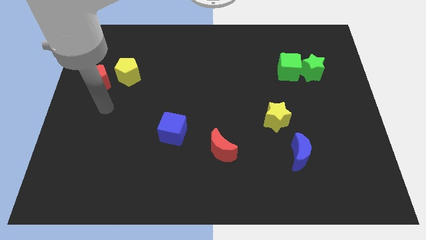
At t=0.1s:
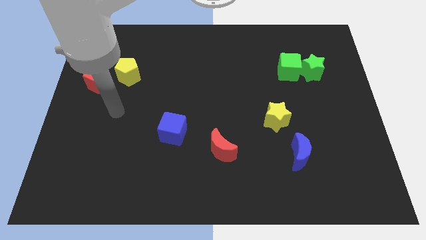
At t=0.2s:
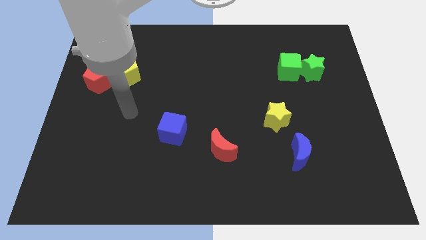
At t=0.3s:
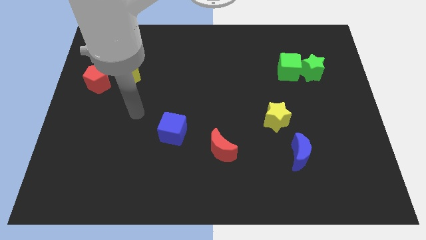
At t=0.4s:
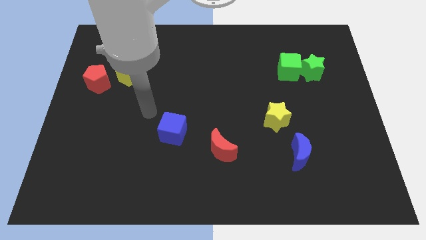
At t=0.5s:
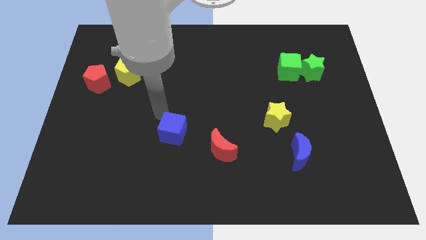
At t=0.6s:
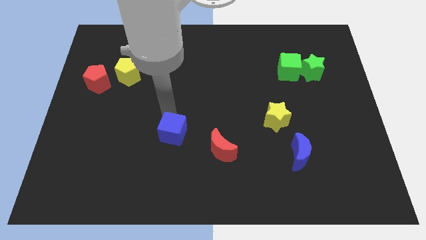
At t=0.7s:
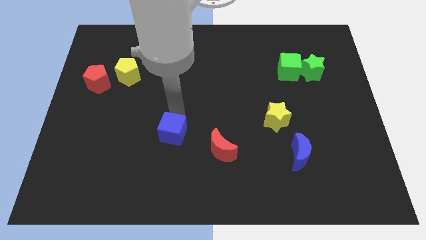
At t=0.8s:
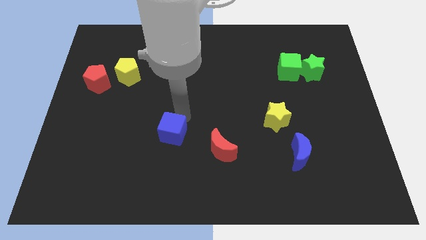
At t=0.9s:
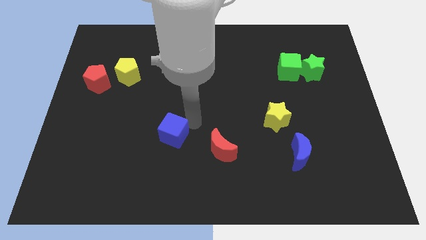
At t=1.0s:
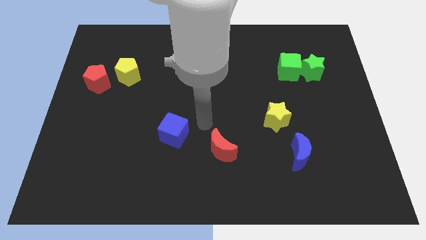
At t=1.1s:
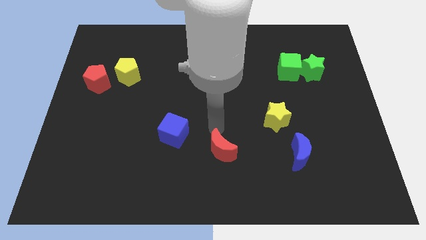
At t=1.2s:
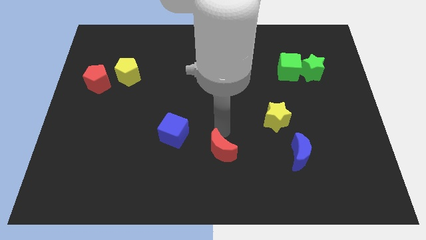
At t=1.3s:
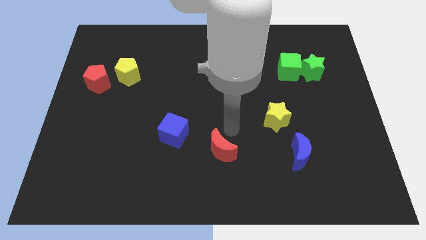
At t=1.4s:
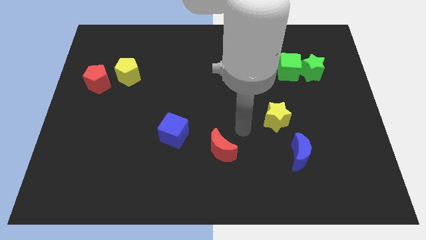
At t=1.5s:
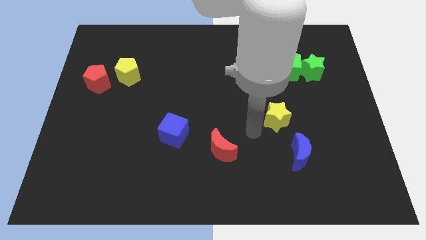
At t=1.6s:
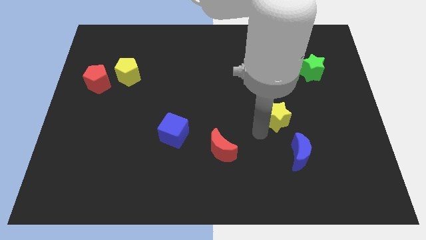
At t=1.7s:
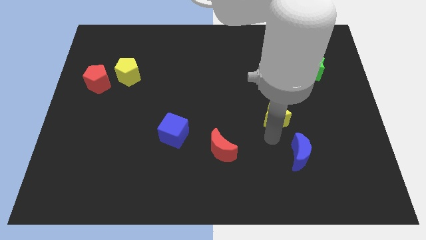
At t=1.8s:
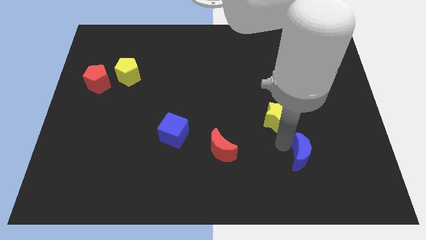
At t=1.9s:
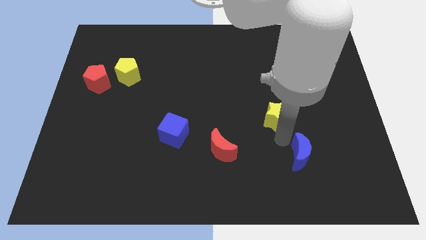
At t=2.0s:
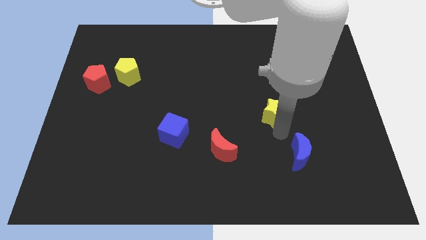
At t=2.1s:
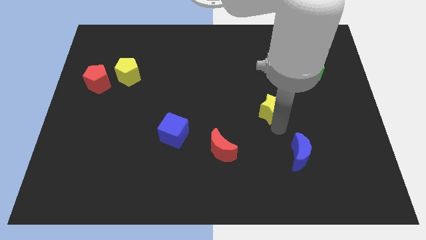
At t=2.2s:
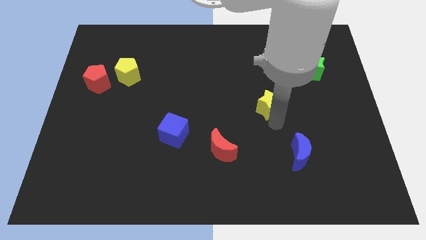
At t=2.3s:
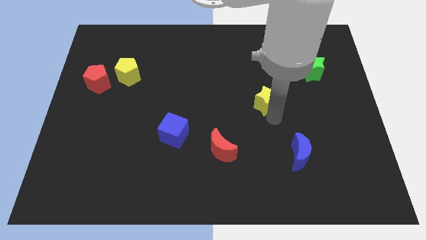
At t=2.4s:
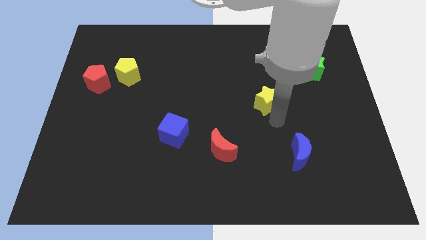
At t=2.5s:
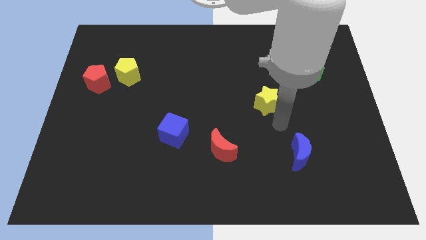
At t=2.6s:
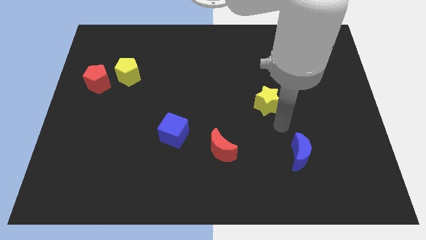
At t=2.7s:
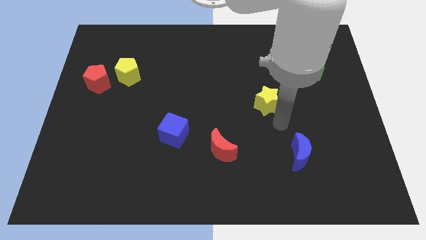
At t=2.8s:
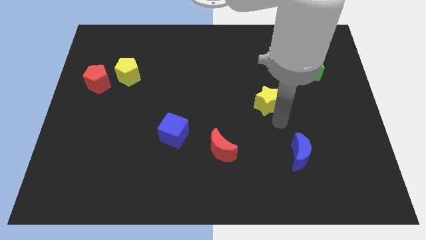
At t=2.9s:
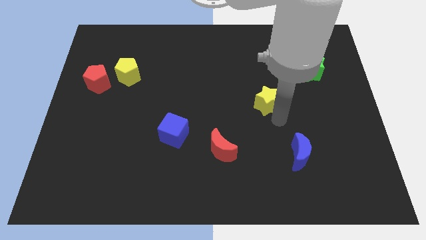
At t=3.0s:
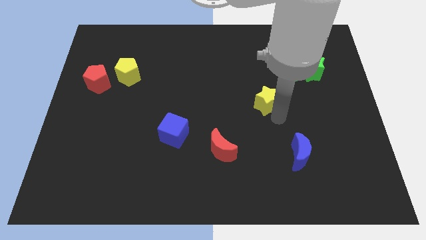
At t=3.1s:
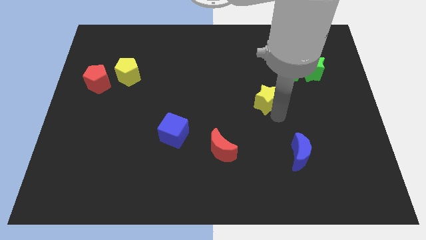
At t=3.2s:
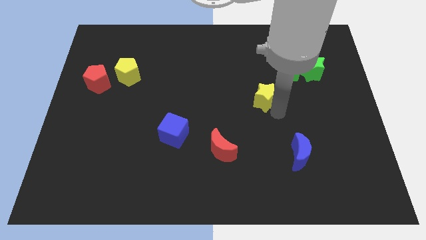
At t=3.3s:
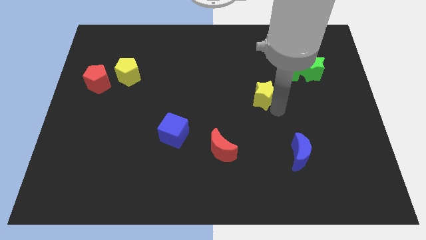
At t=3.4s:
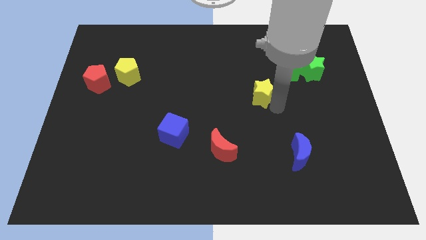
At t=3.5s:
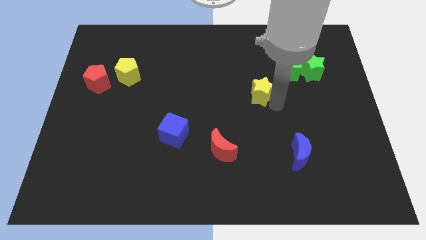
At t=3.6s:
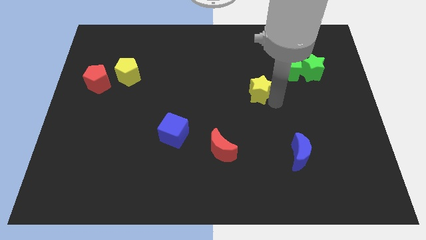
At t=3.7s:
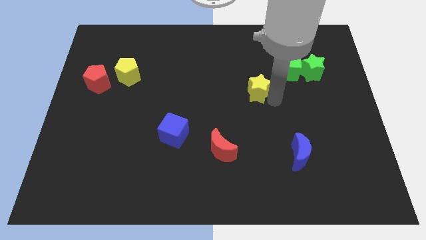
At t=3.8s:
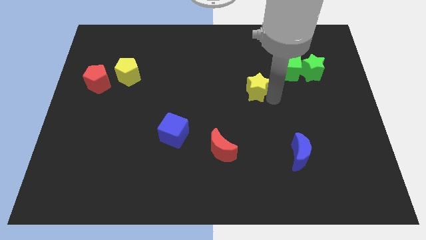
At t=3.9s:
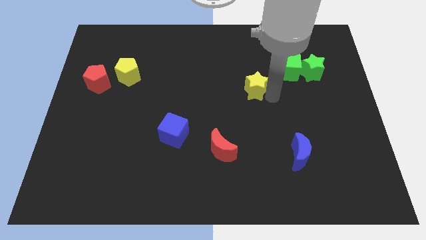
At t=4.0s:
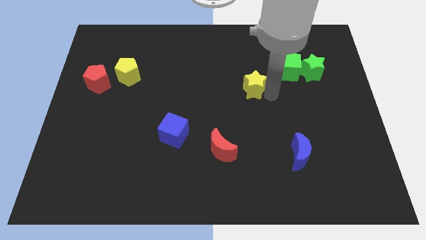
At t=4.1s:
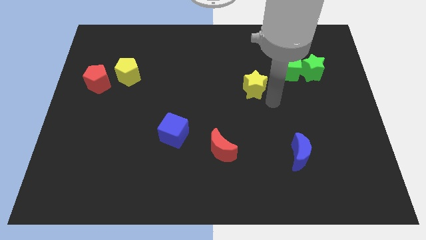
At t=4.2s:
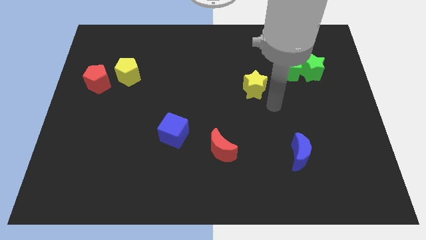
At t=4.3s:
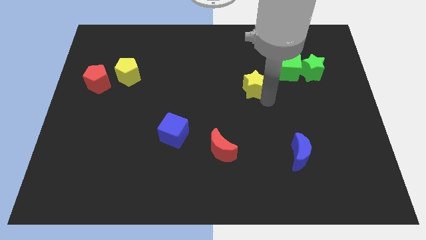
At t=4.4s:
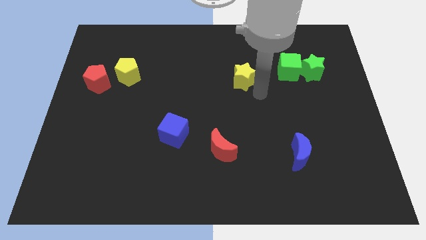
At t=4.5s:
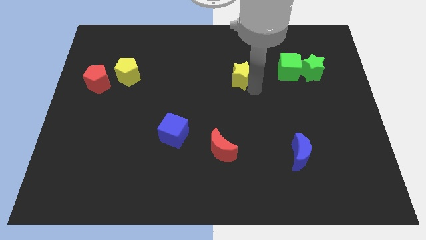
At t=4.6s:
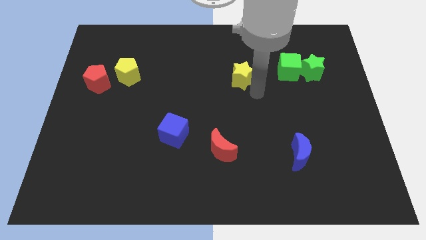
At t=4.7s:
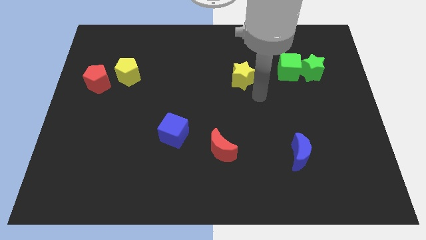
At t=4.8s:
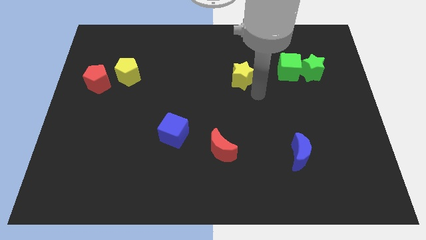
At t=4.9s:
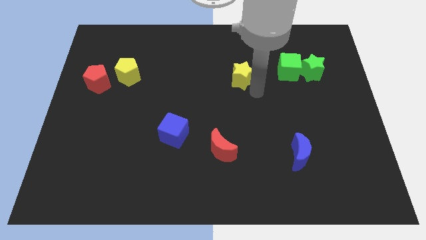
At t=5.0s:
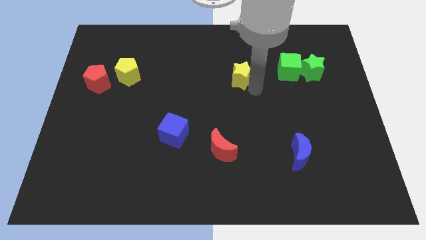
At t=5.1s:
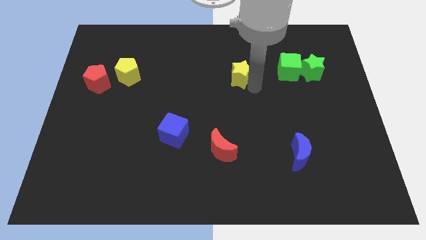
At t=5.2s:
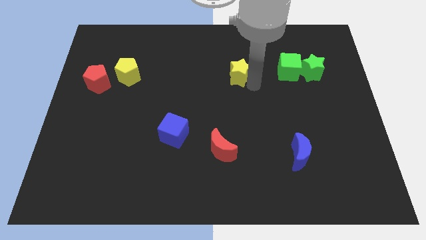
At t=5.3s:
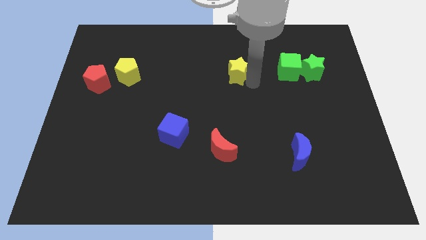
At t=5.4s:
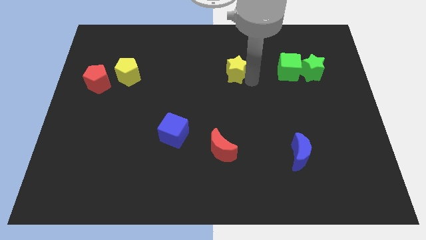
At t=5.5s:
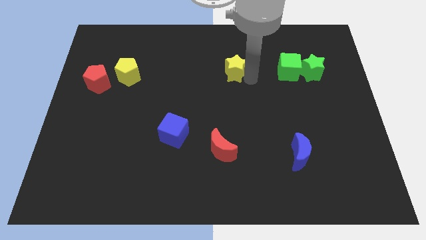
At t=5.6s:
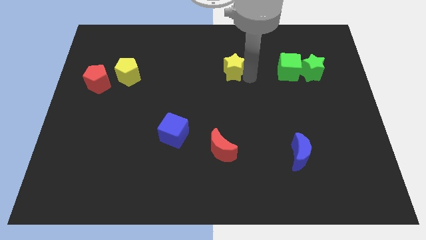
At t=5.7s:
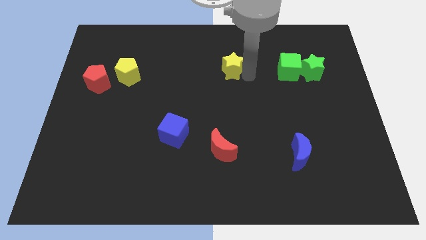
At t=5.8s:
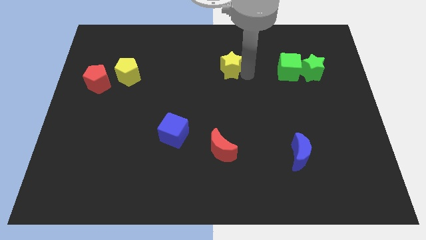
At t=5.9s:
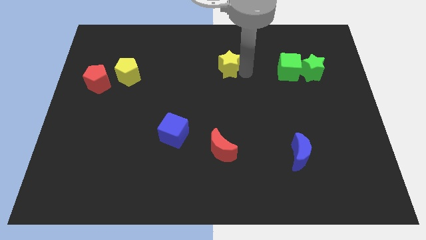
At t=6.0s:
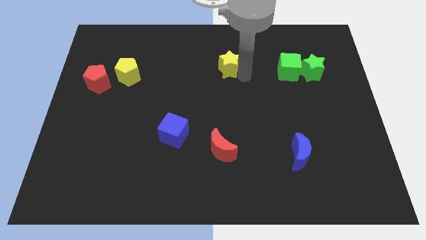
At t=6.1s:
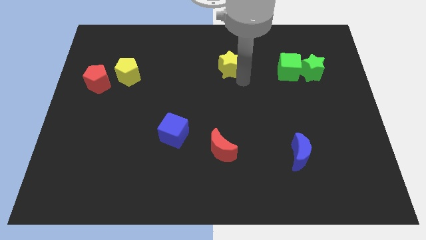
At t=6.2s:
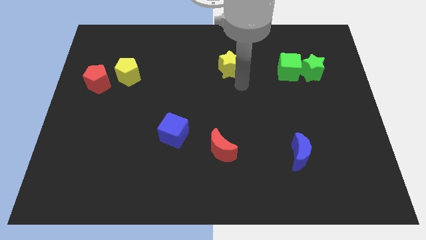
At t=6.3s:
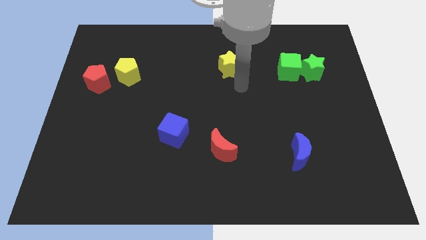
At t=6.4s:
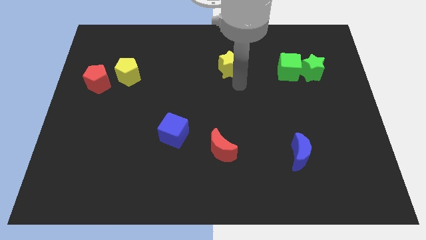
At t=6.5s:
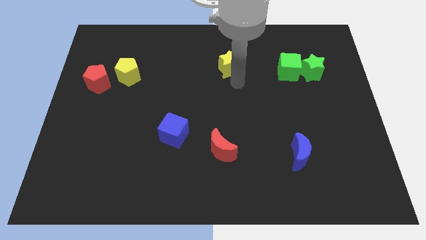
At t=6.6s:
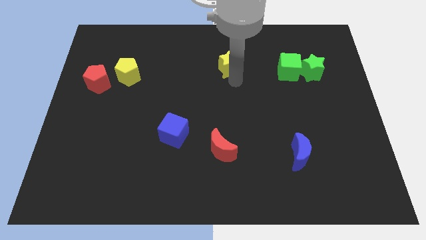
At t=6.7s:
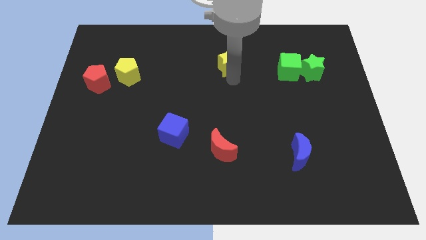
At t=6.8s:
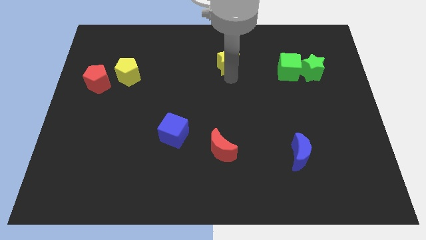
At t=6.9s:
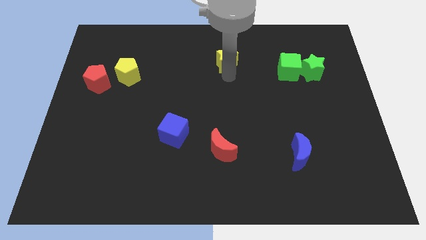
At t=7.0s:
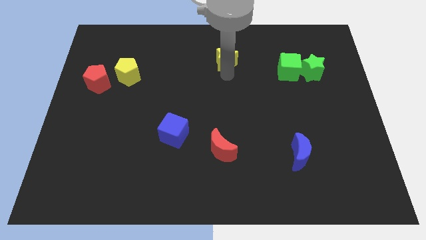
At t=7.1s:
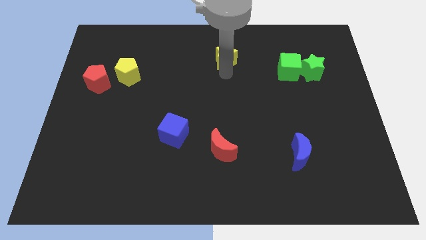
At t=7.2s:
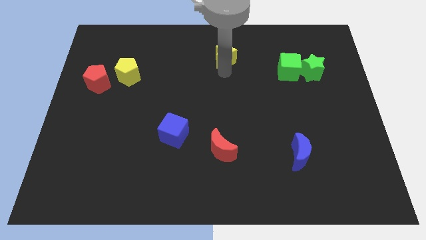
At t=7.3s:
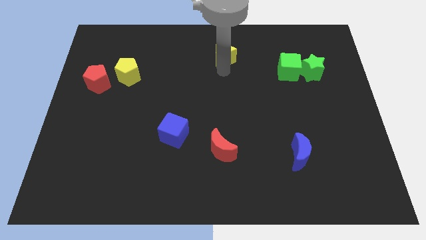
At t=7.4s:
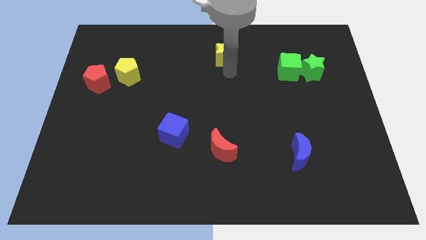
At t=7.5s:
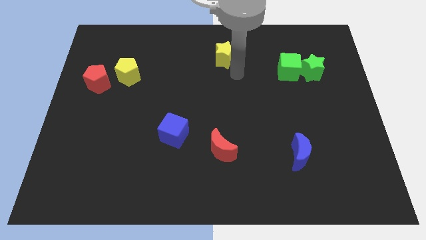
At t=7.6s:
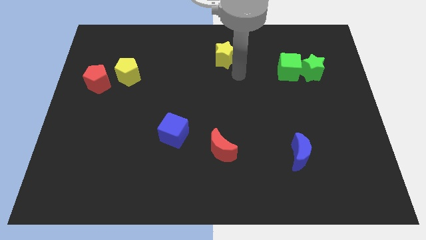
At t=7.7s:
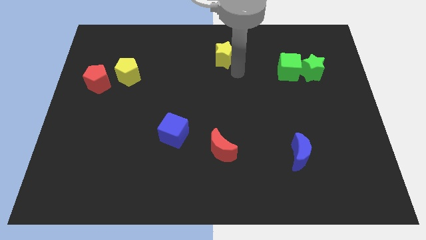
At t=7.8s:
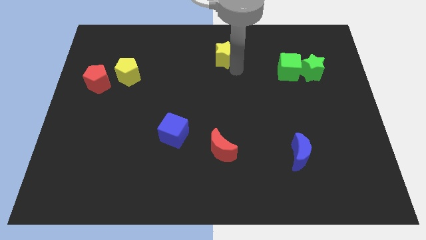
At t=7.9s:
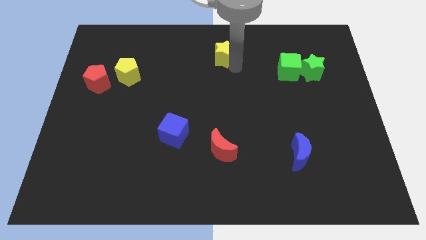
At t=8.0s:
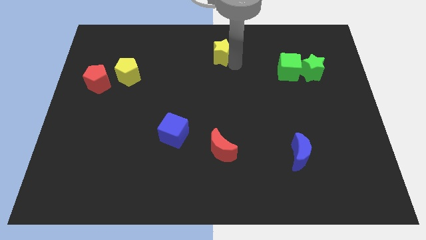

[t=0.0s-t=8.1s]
move the yellow star to the towards your base
